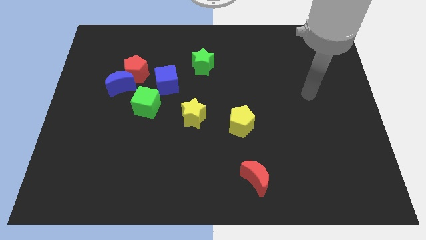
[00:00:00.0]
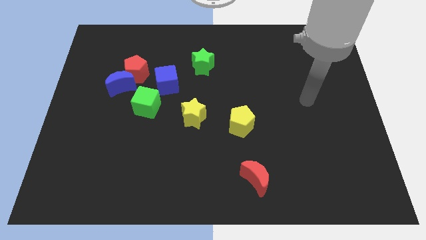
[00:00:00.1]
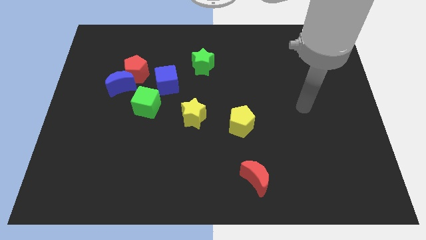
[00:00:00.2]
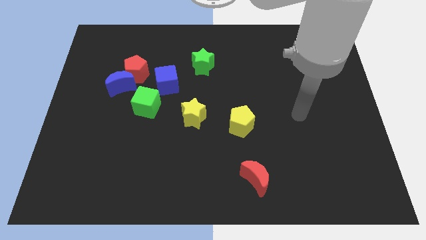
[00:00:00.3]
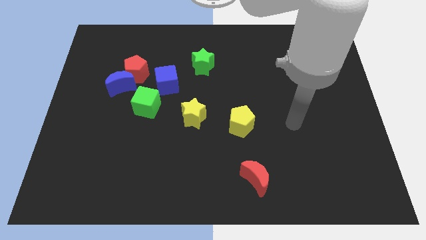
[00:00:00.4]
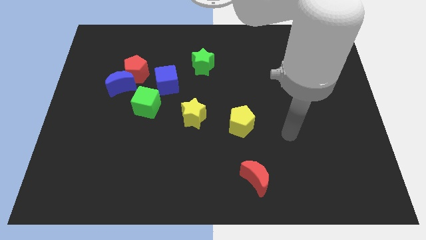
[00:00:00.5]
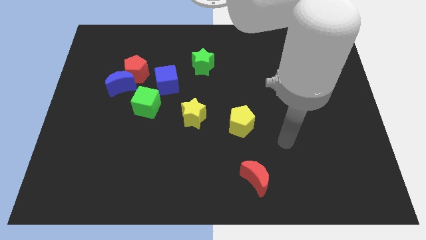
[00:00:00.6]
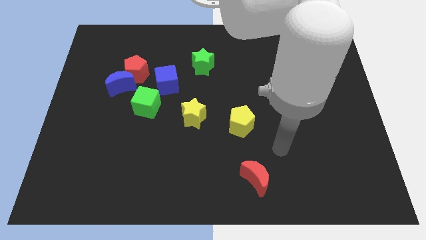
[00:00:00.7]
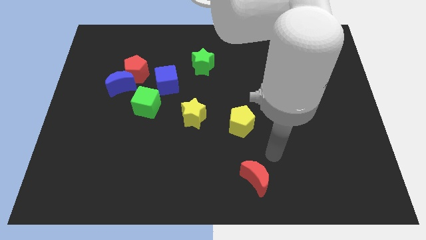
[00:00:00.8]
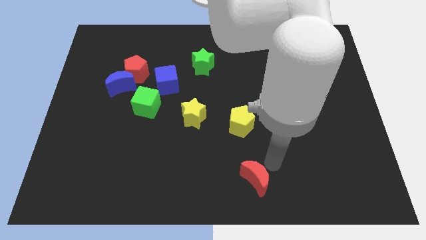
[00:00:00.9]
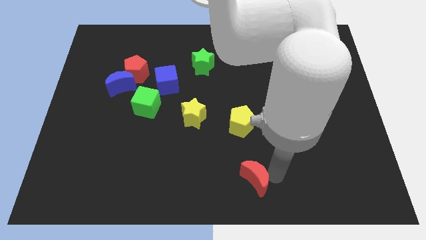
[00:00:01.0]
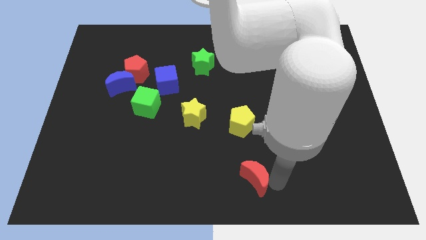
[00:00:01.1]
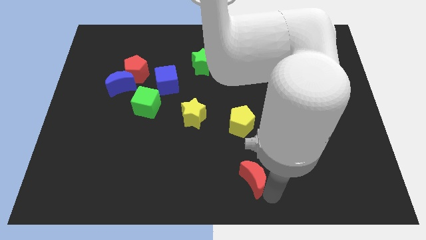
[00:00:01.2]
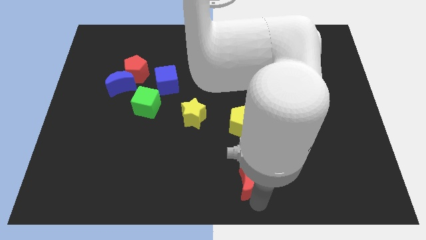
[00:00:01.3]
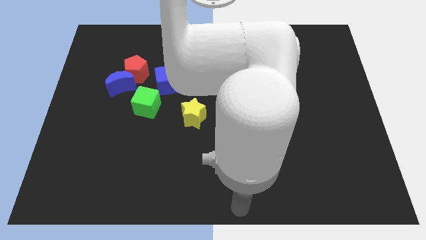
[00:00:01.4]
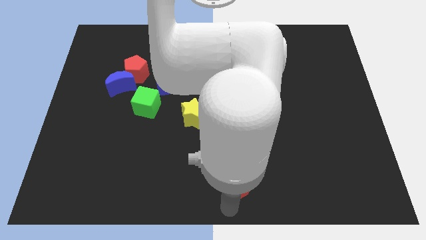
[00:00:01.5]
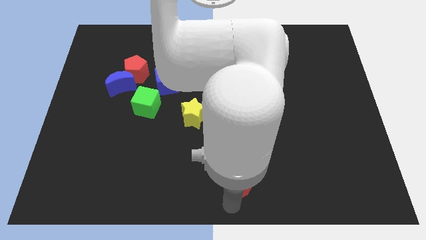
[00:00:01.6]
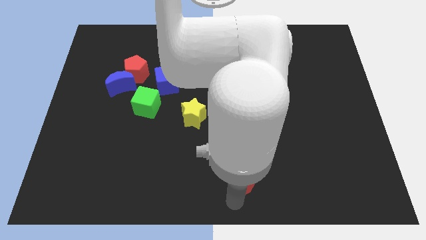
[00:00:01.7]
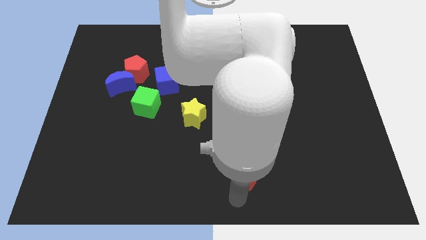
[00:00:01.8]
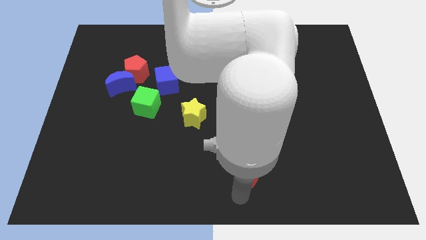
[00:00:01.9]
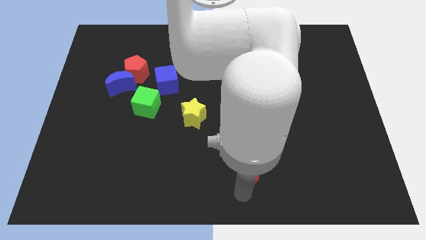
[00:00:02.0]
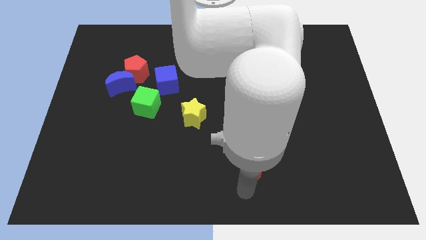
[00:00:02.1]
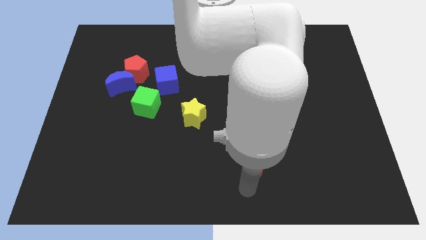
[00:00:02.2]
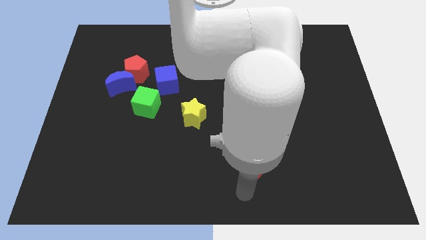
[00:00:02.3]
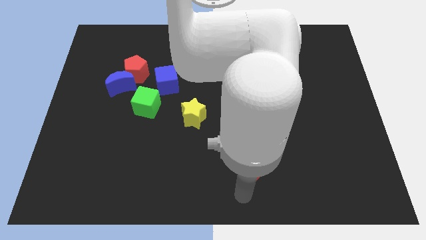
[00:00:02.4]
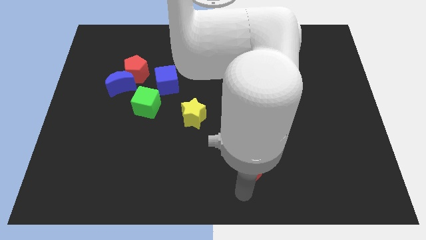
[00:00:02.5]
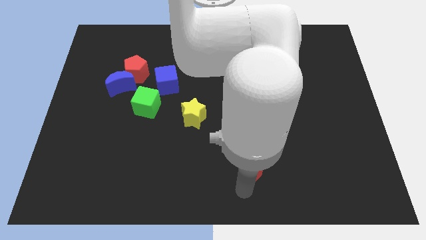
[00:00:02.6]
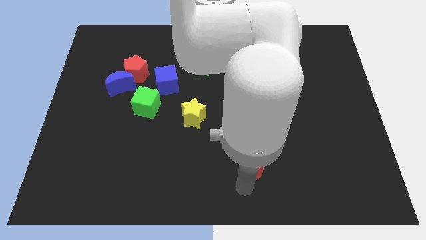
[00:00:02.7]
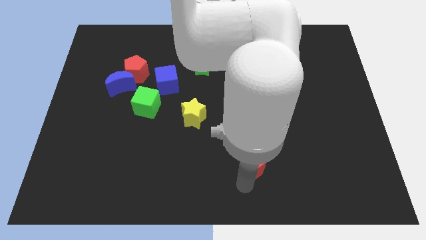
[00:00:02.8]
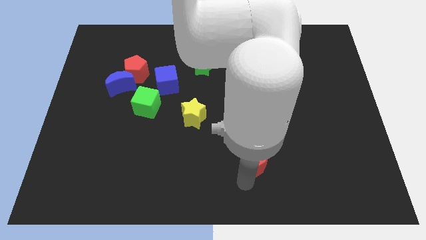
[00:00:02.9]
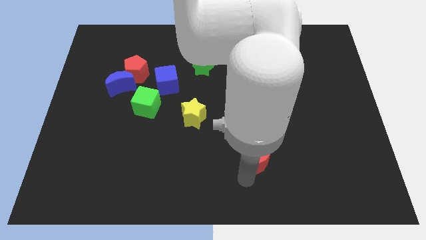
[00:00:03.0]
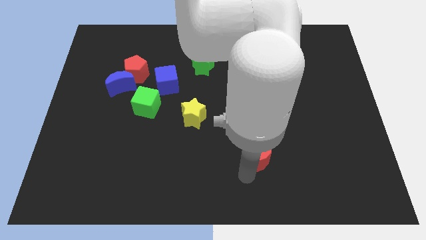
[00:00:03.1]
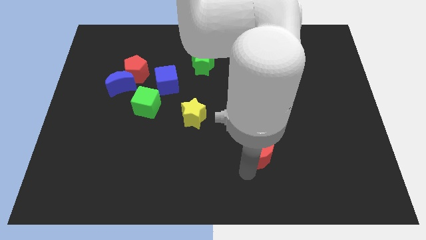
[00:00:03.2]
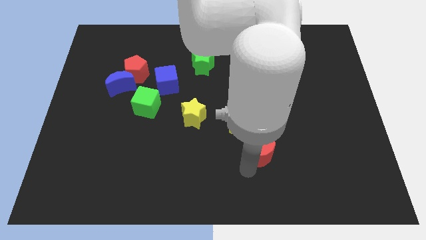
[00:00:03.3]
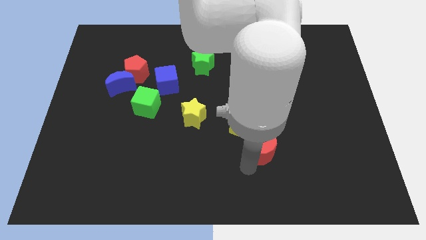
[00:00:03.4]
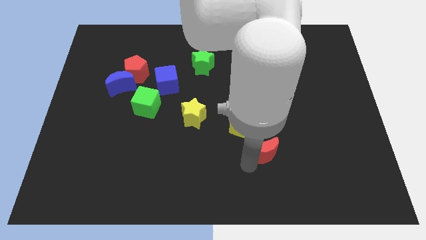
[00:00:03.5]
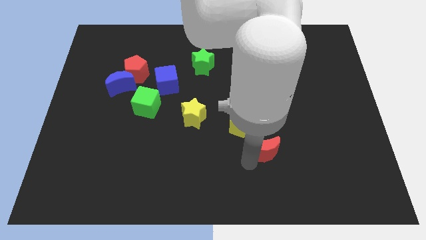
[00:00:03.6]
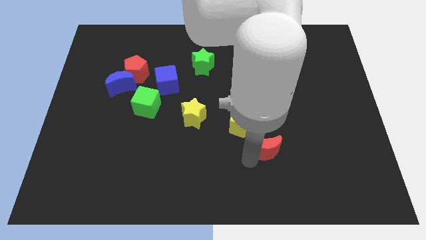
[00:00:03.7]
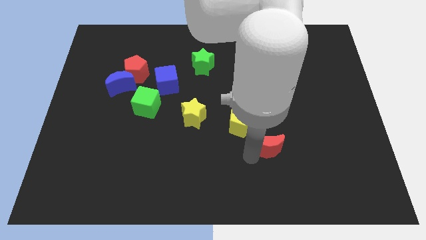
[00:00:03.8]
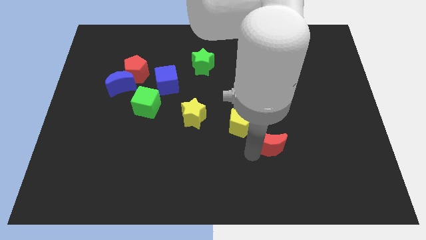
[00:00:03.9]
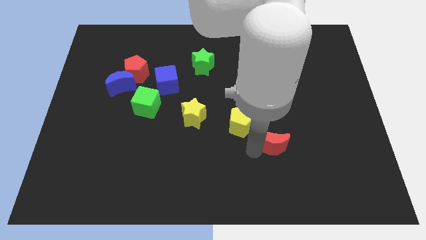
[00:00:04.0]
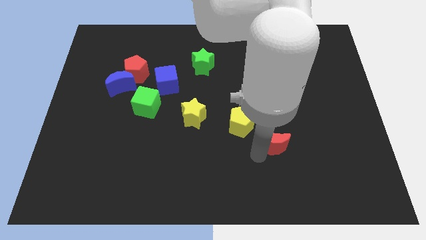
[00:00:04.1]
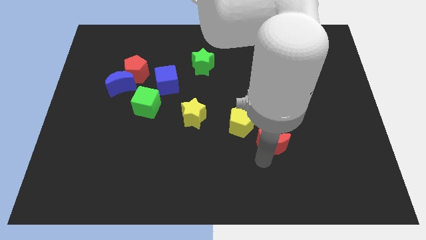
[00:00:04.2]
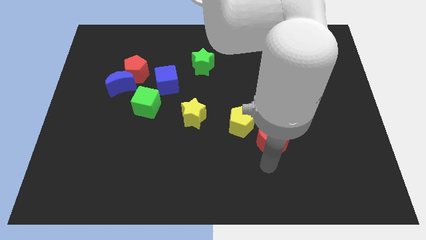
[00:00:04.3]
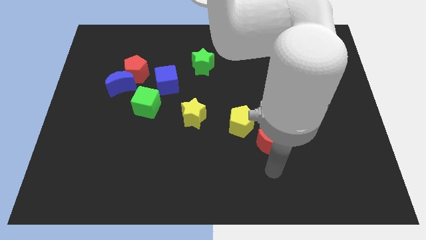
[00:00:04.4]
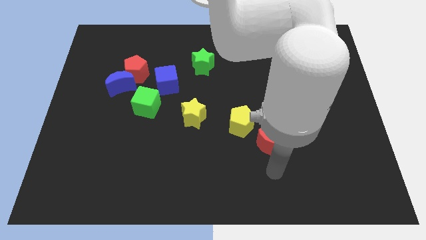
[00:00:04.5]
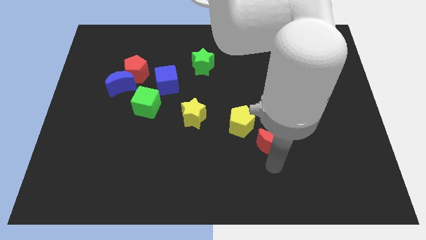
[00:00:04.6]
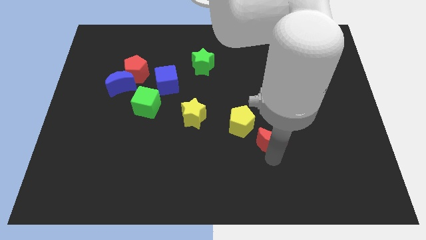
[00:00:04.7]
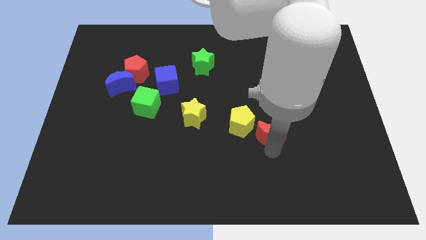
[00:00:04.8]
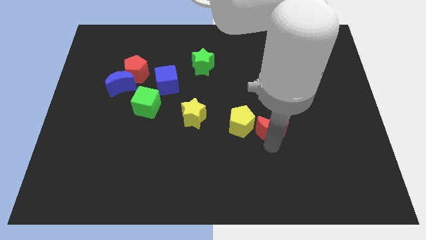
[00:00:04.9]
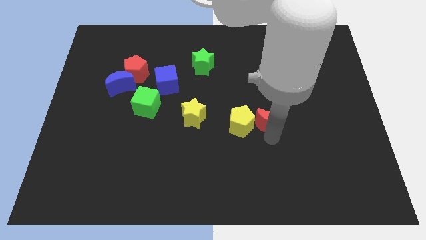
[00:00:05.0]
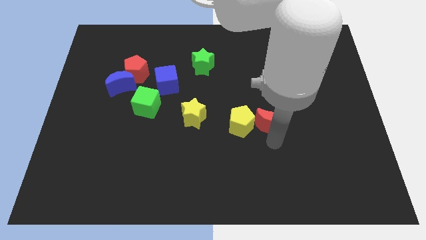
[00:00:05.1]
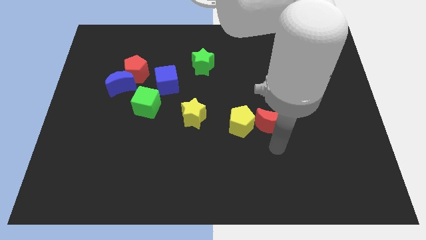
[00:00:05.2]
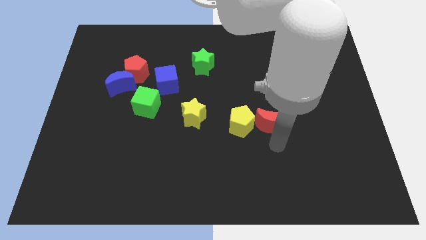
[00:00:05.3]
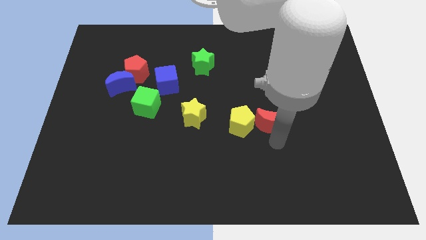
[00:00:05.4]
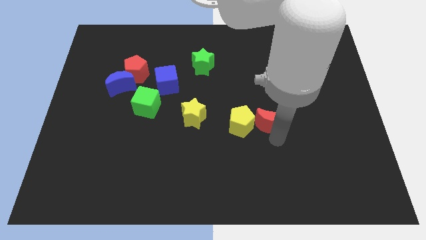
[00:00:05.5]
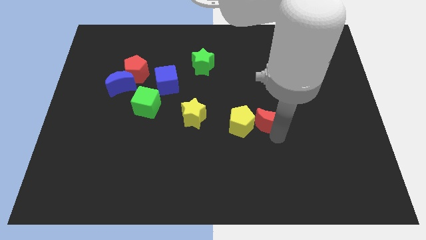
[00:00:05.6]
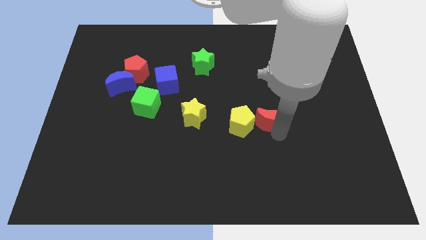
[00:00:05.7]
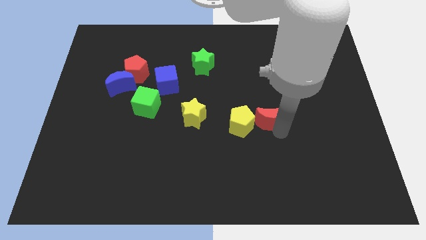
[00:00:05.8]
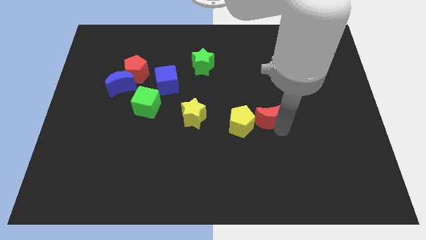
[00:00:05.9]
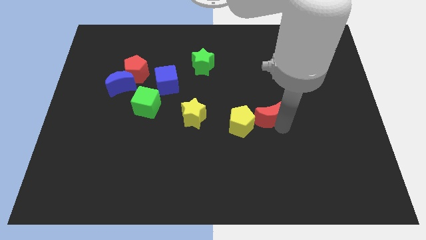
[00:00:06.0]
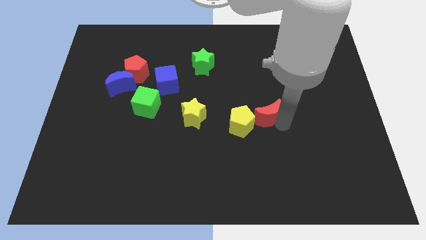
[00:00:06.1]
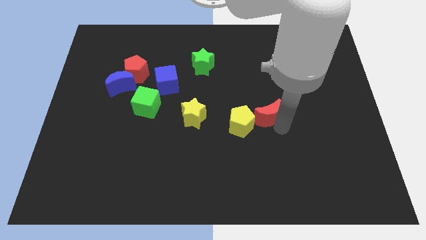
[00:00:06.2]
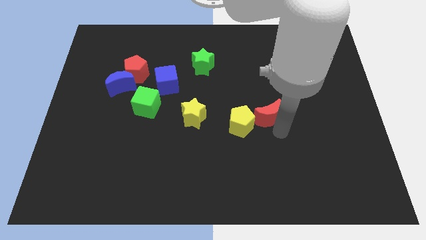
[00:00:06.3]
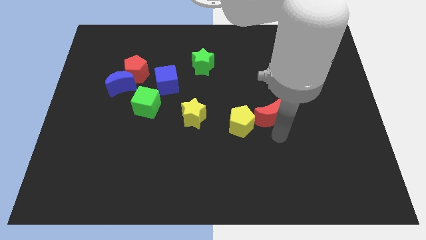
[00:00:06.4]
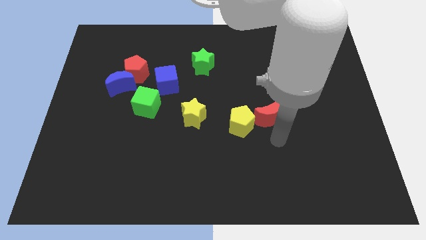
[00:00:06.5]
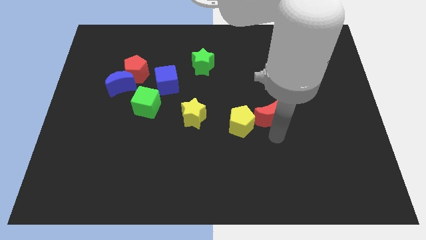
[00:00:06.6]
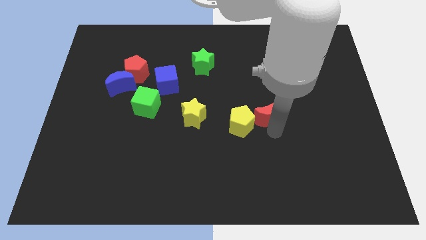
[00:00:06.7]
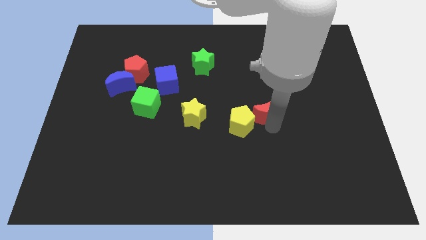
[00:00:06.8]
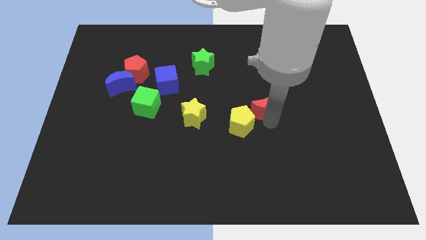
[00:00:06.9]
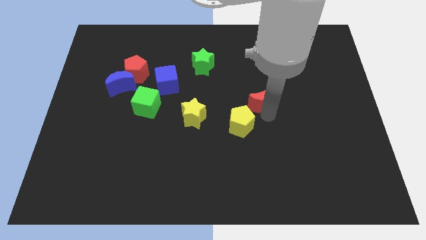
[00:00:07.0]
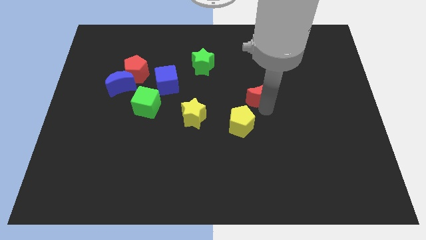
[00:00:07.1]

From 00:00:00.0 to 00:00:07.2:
push the red moon upwards

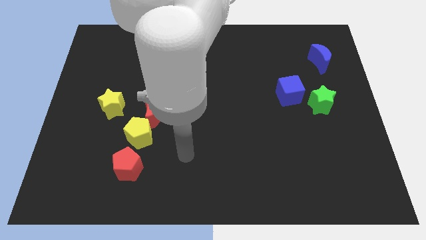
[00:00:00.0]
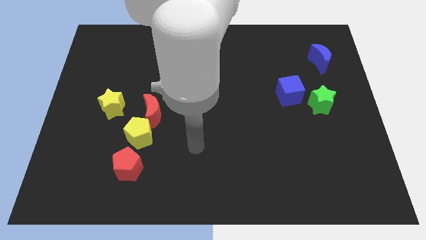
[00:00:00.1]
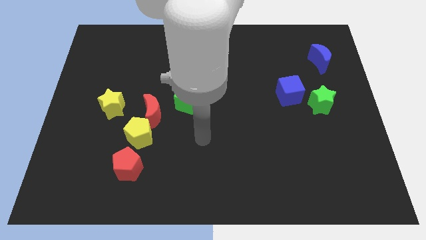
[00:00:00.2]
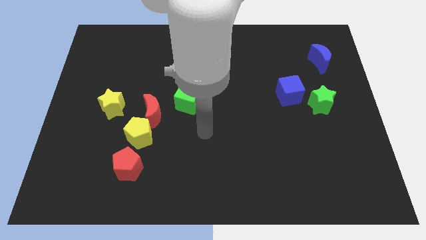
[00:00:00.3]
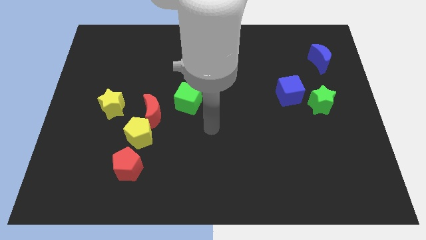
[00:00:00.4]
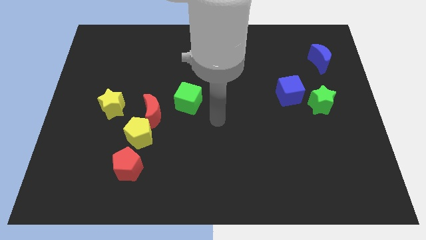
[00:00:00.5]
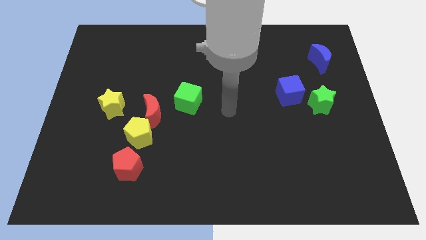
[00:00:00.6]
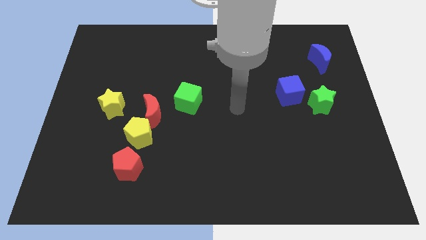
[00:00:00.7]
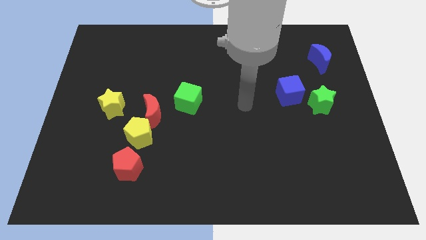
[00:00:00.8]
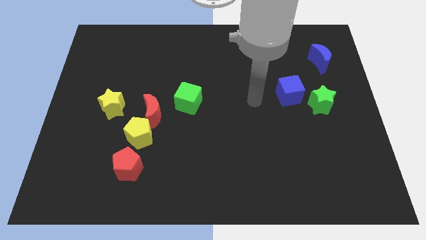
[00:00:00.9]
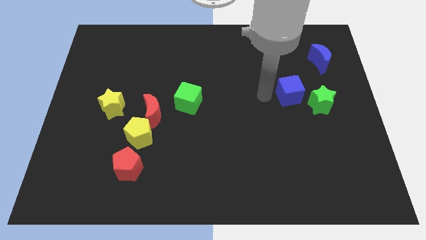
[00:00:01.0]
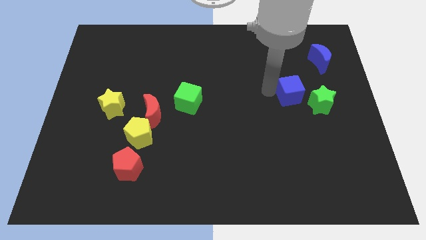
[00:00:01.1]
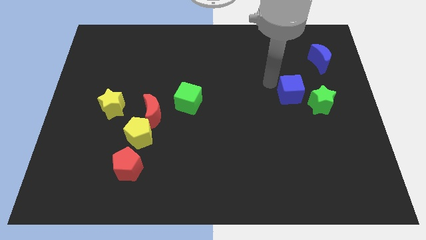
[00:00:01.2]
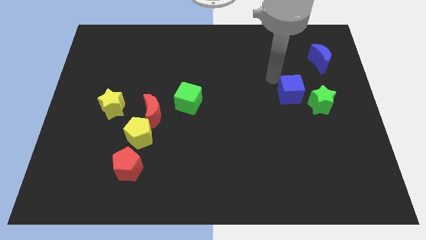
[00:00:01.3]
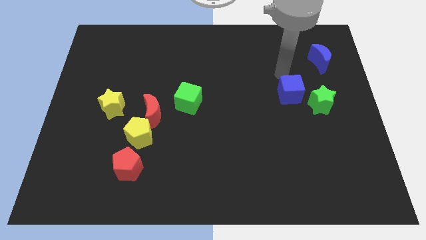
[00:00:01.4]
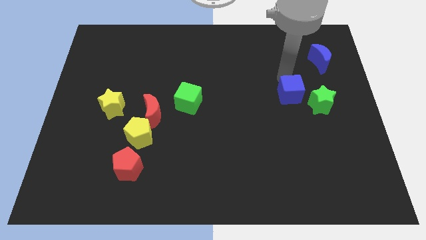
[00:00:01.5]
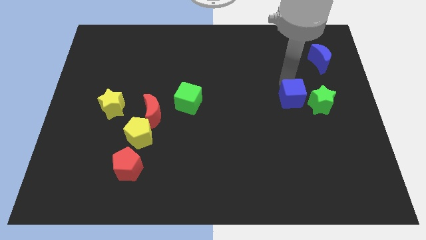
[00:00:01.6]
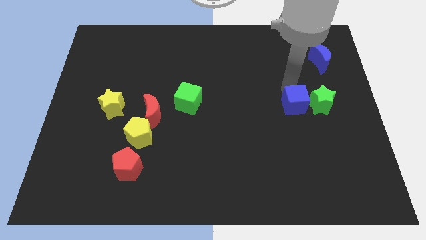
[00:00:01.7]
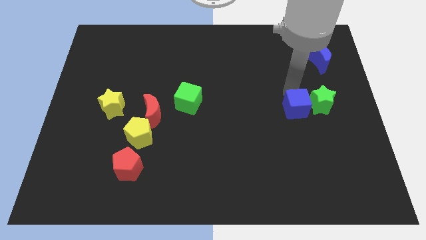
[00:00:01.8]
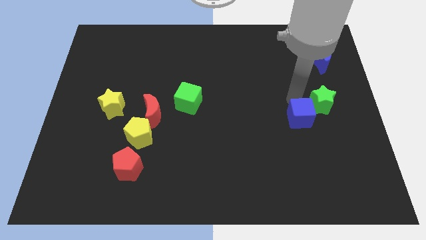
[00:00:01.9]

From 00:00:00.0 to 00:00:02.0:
move the blue cube a bit down
